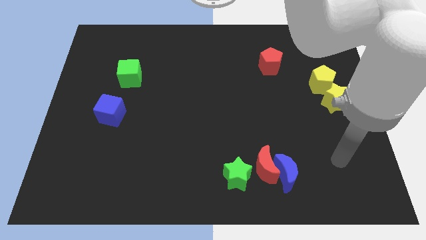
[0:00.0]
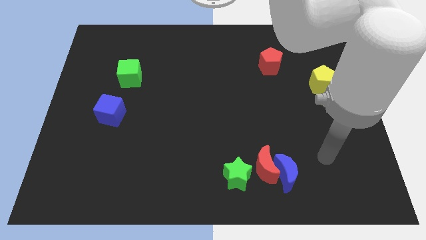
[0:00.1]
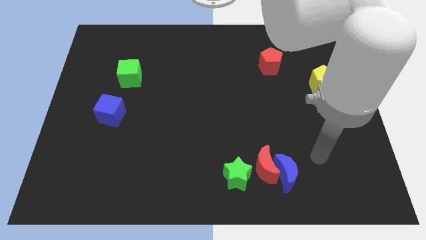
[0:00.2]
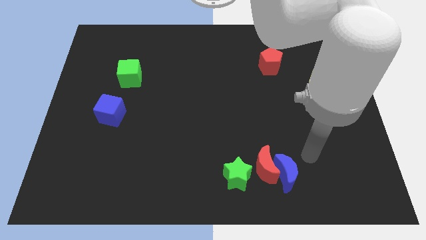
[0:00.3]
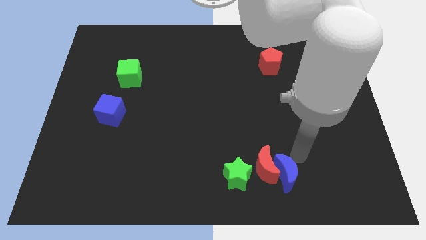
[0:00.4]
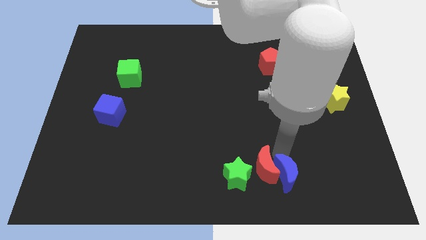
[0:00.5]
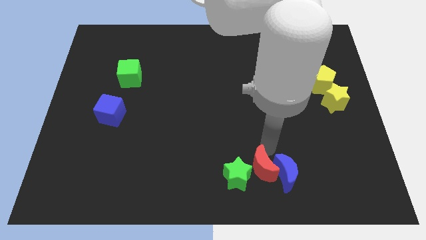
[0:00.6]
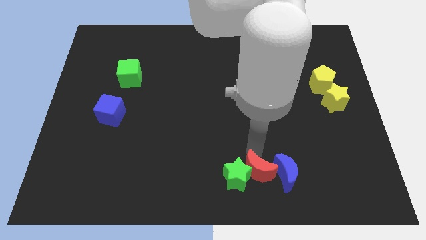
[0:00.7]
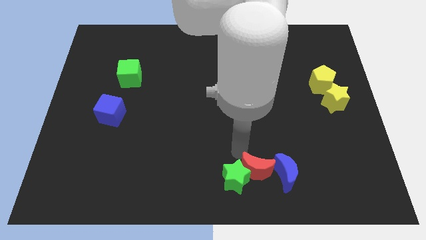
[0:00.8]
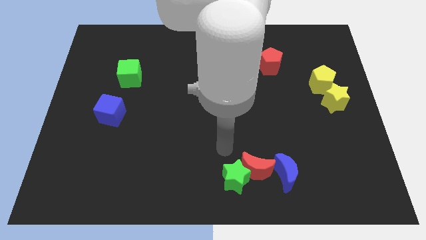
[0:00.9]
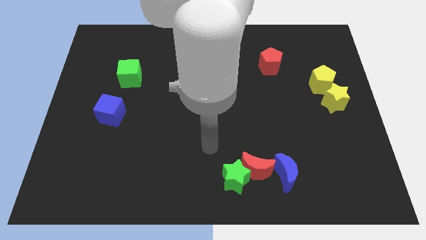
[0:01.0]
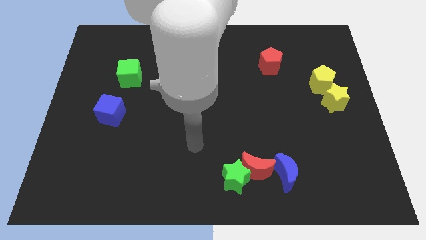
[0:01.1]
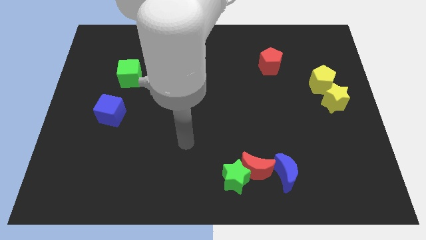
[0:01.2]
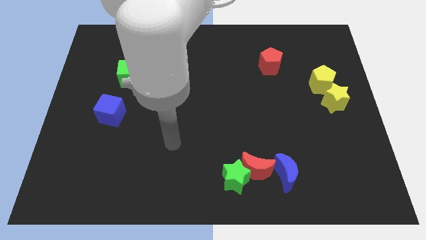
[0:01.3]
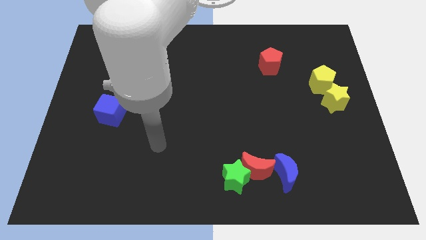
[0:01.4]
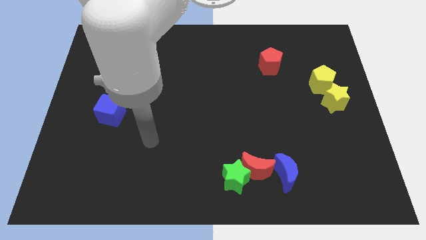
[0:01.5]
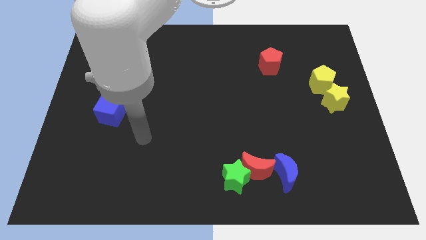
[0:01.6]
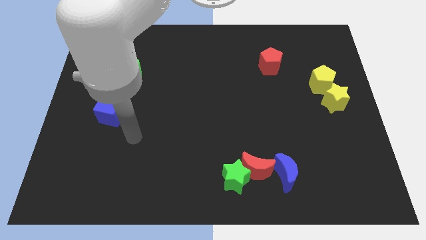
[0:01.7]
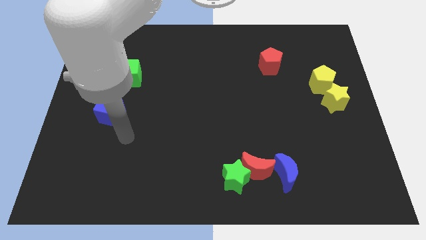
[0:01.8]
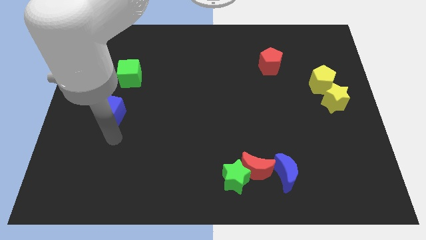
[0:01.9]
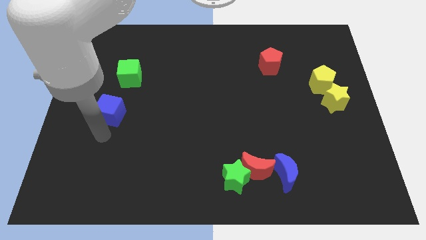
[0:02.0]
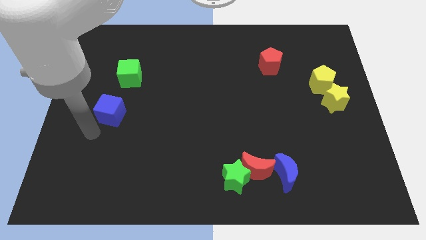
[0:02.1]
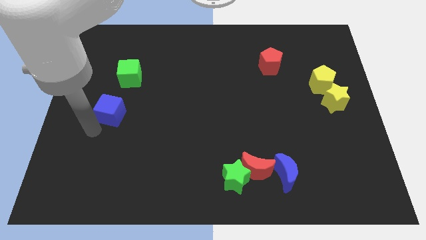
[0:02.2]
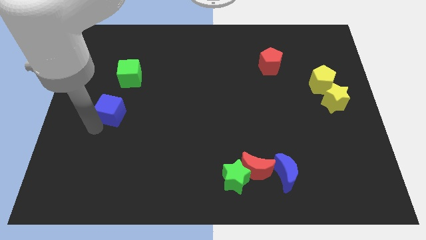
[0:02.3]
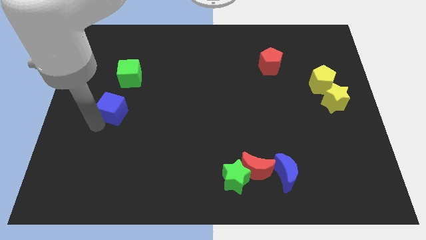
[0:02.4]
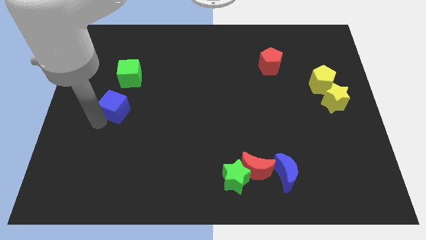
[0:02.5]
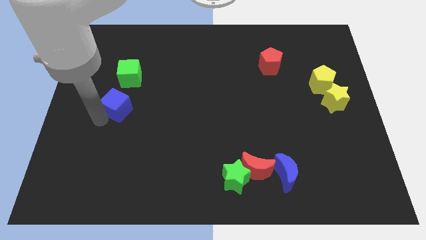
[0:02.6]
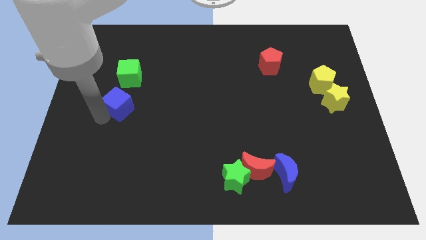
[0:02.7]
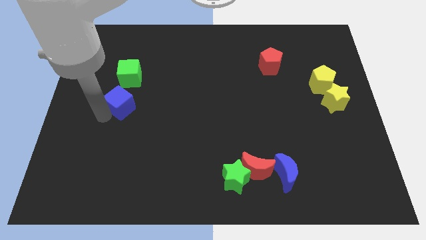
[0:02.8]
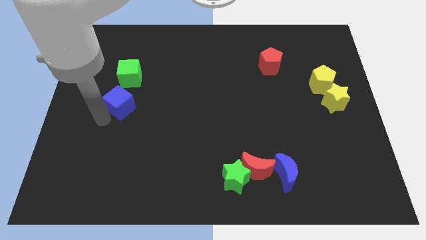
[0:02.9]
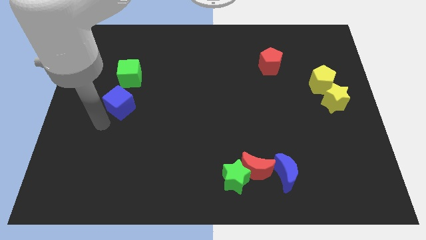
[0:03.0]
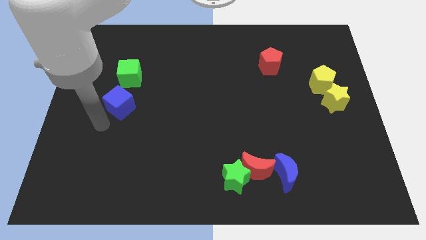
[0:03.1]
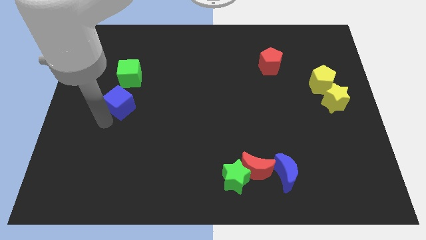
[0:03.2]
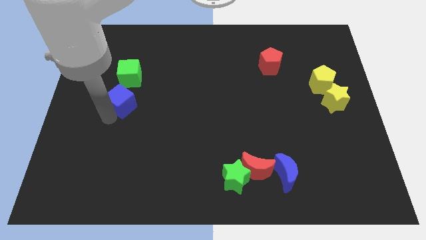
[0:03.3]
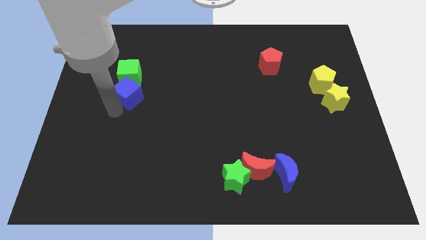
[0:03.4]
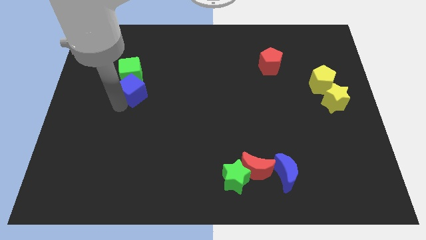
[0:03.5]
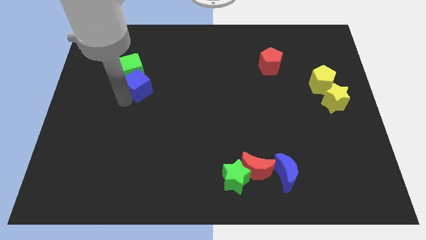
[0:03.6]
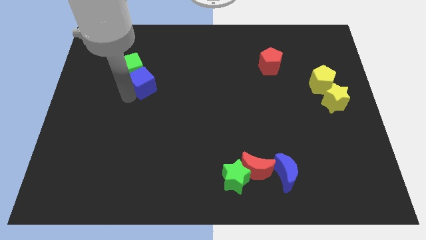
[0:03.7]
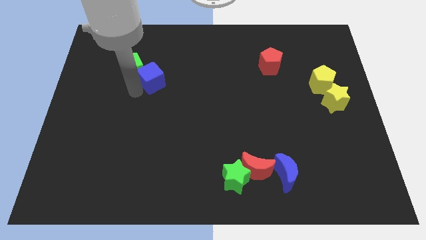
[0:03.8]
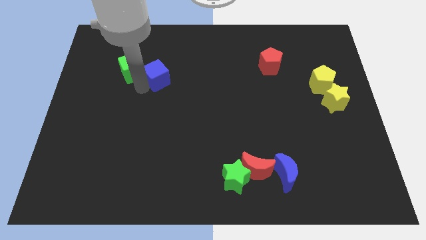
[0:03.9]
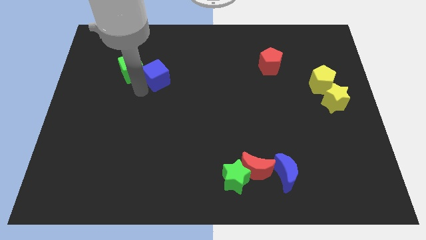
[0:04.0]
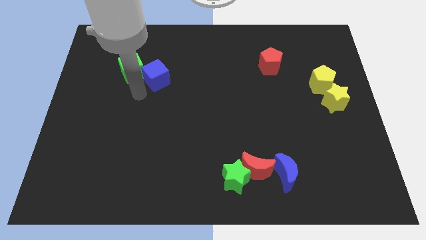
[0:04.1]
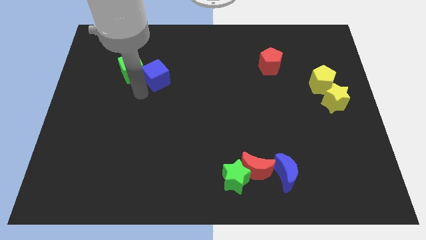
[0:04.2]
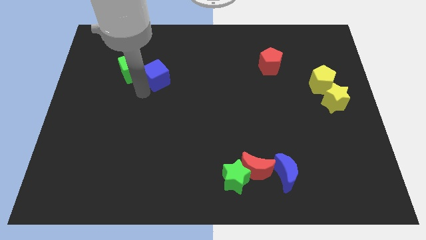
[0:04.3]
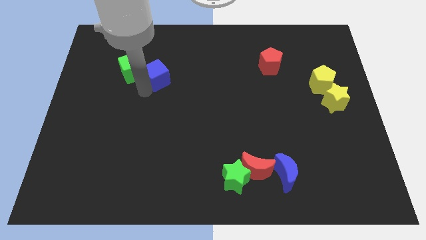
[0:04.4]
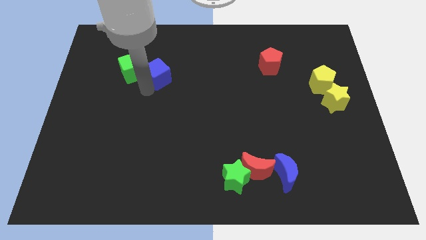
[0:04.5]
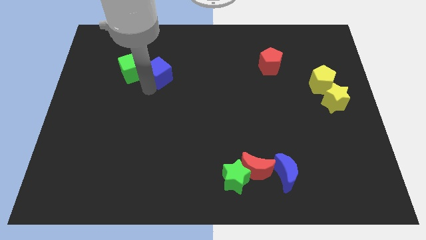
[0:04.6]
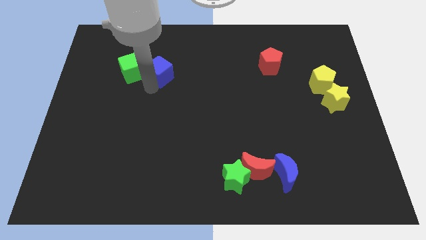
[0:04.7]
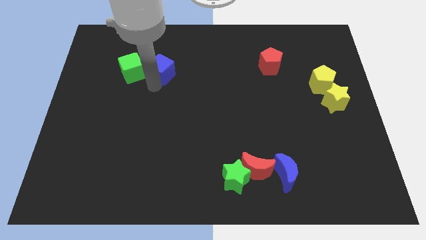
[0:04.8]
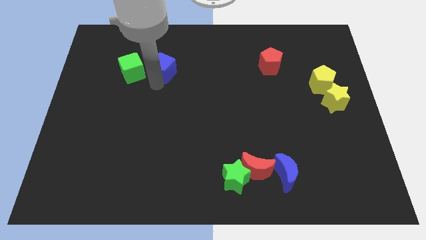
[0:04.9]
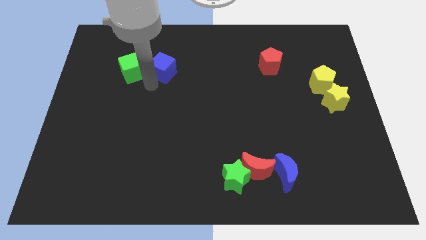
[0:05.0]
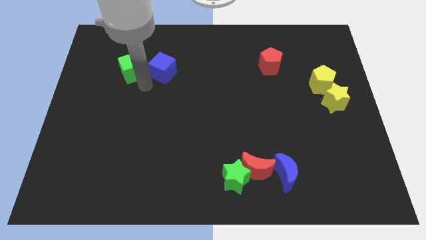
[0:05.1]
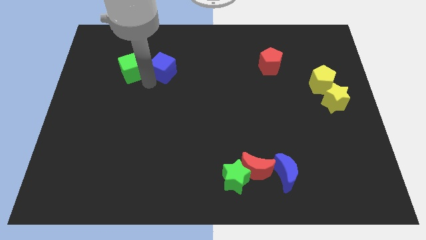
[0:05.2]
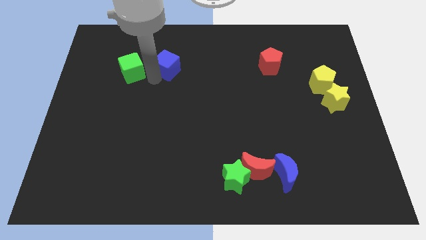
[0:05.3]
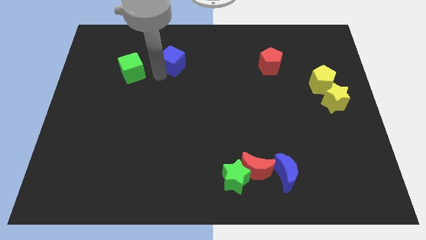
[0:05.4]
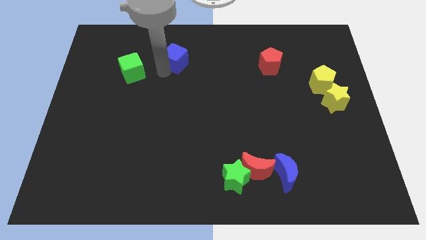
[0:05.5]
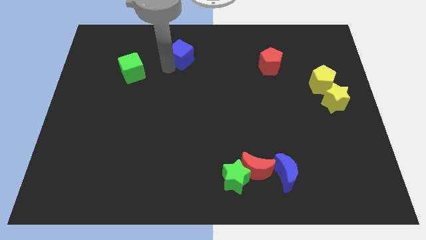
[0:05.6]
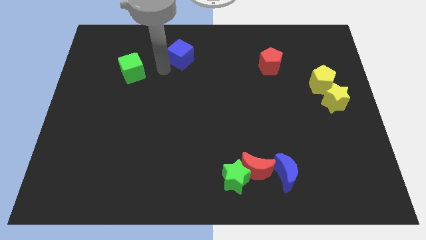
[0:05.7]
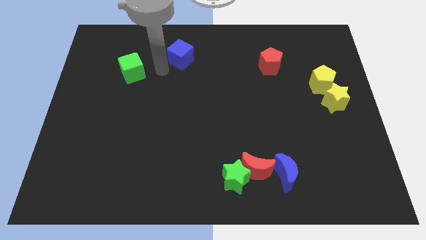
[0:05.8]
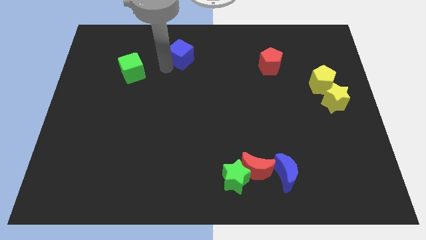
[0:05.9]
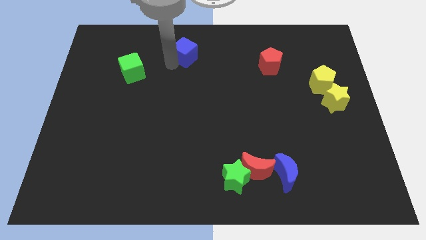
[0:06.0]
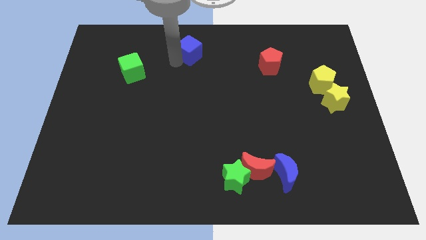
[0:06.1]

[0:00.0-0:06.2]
slide the blue cube to the top
